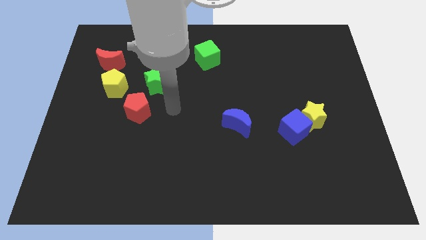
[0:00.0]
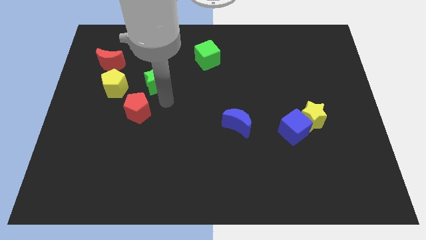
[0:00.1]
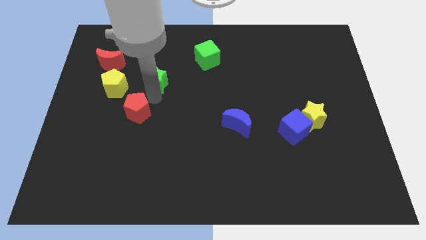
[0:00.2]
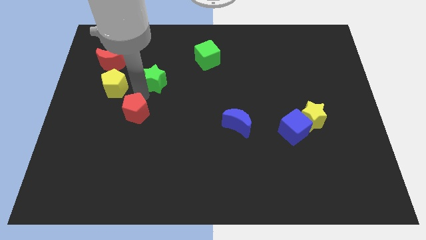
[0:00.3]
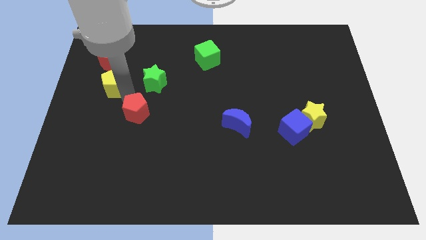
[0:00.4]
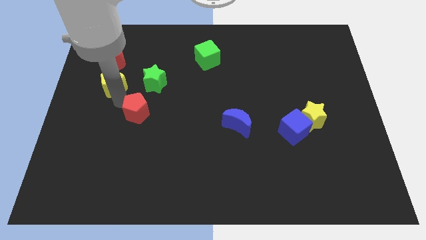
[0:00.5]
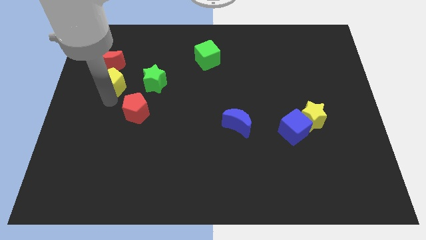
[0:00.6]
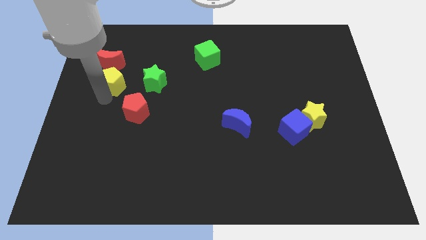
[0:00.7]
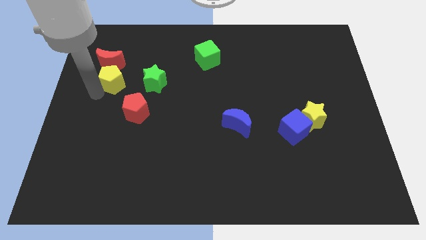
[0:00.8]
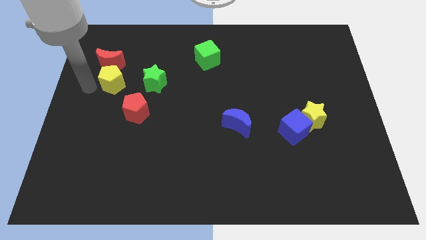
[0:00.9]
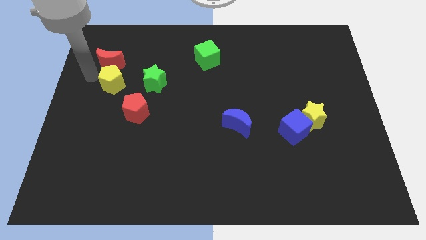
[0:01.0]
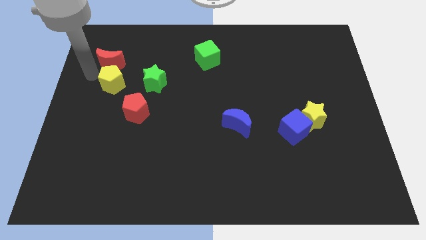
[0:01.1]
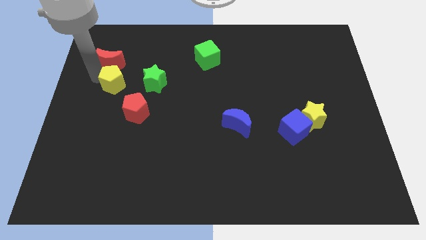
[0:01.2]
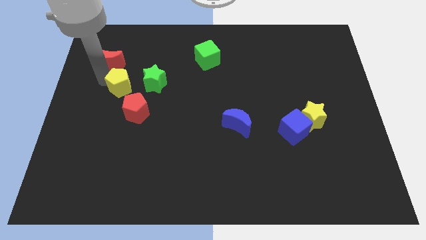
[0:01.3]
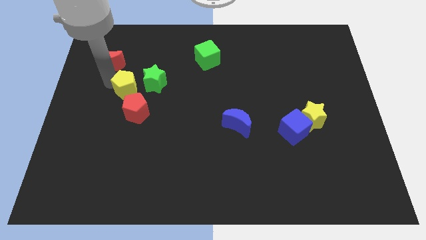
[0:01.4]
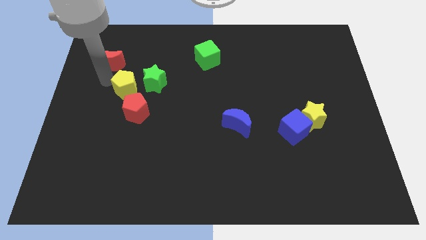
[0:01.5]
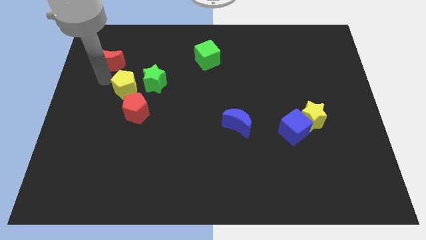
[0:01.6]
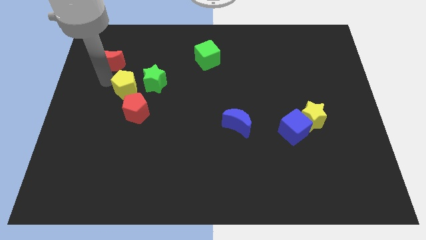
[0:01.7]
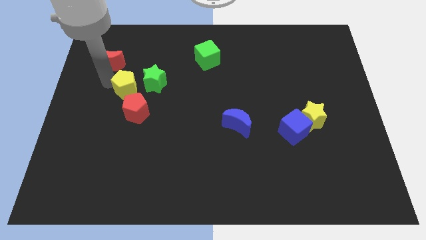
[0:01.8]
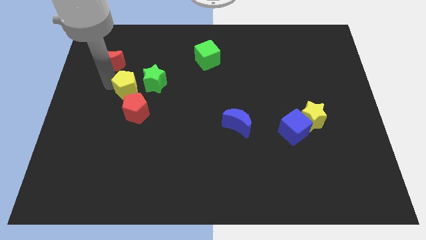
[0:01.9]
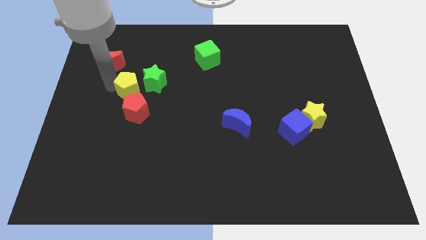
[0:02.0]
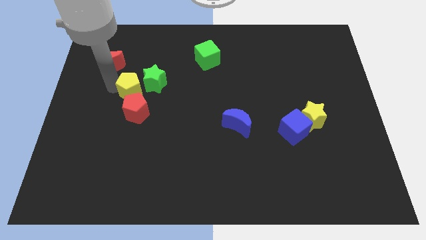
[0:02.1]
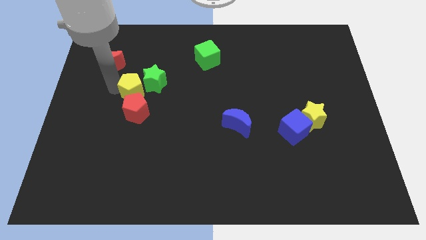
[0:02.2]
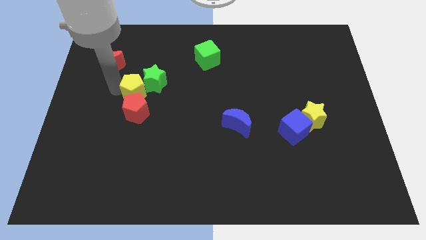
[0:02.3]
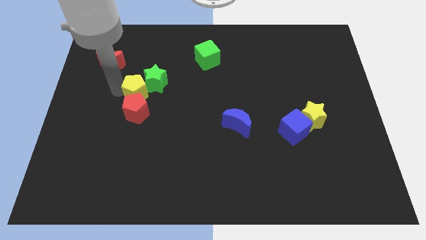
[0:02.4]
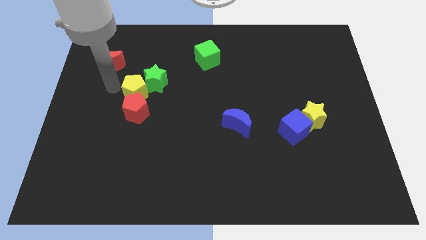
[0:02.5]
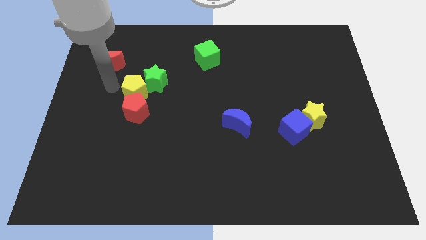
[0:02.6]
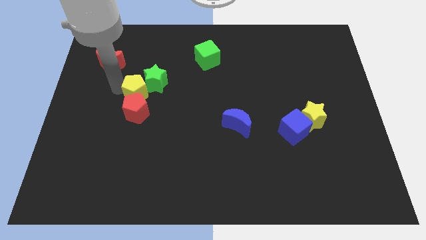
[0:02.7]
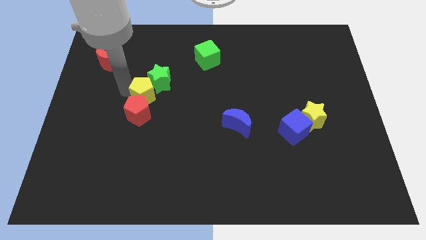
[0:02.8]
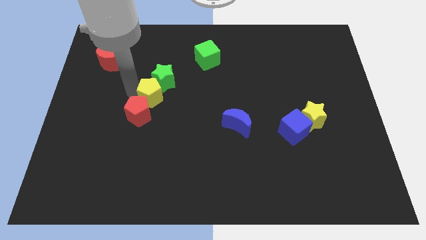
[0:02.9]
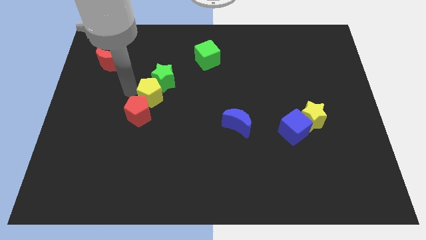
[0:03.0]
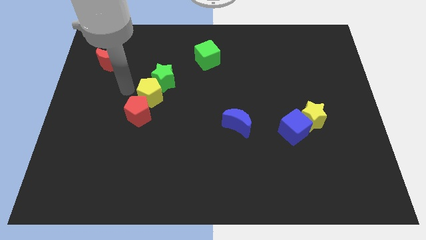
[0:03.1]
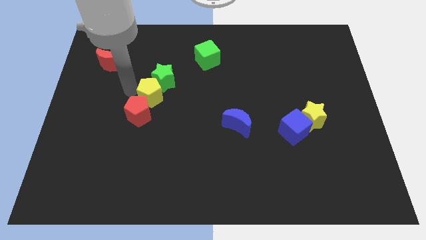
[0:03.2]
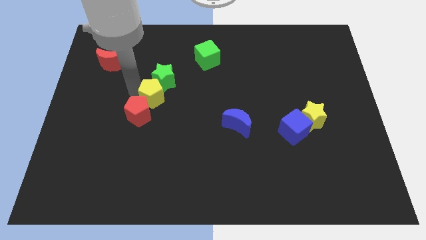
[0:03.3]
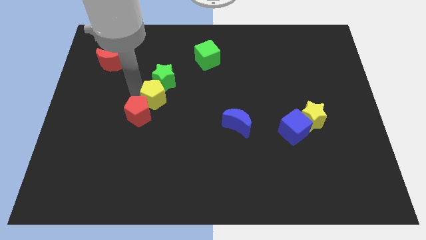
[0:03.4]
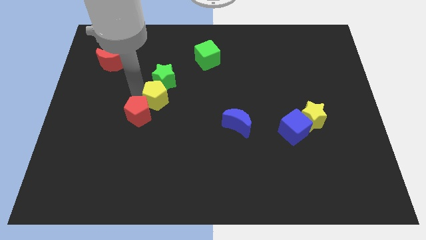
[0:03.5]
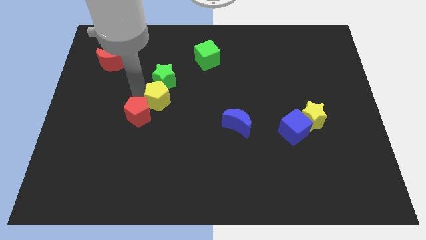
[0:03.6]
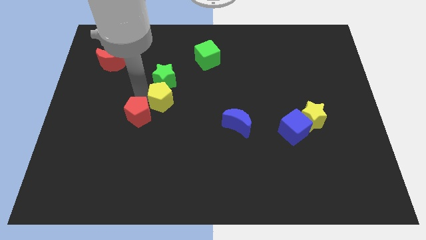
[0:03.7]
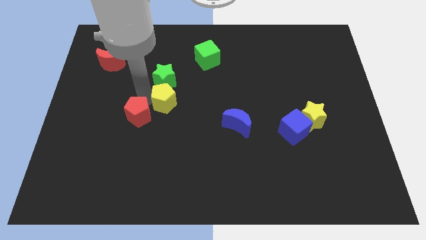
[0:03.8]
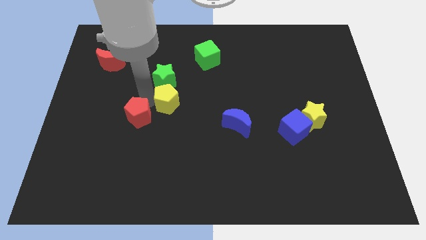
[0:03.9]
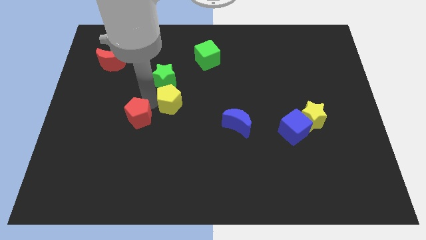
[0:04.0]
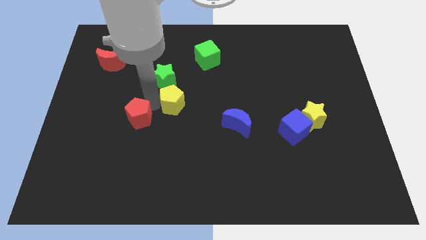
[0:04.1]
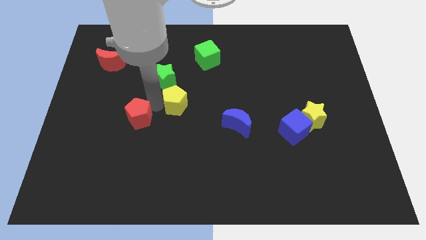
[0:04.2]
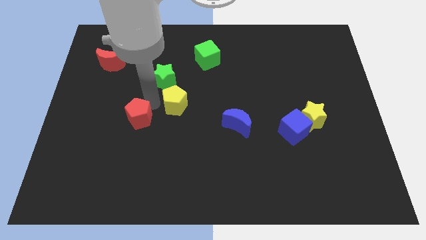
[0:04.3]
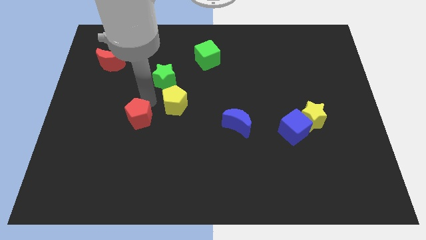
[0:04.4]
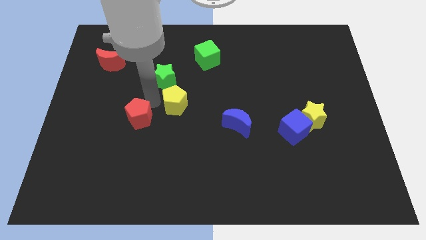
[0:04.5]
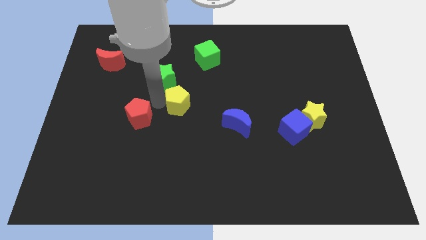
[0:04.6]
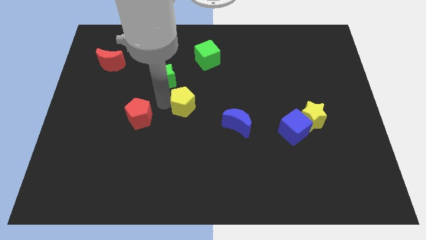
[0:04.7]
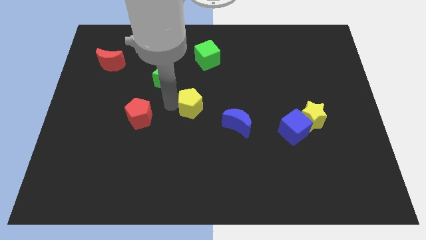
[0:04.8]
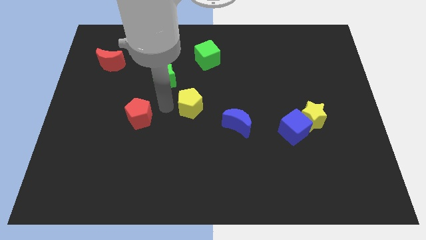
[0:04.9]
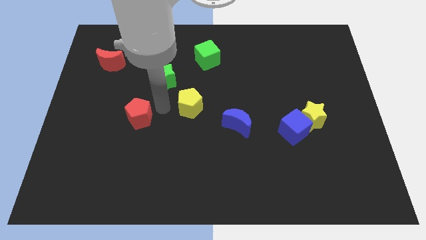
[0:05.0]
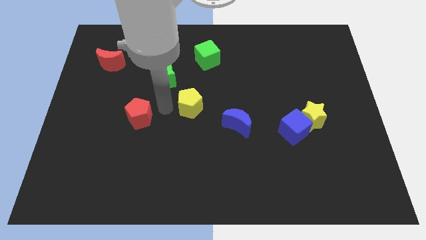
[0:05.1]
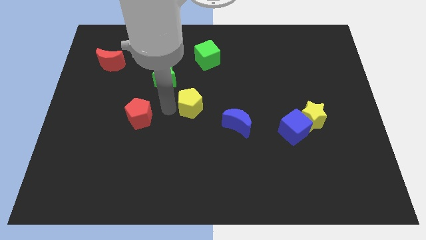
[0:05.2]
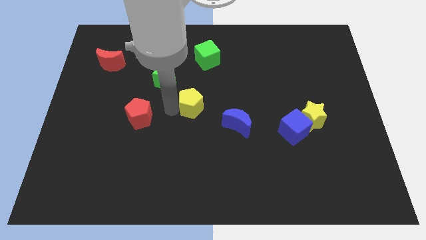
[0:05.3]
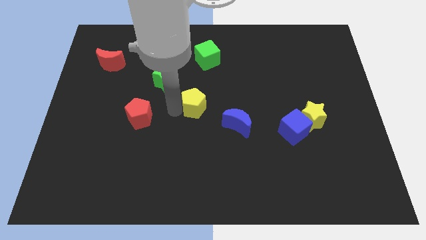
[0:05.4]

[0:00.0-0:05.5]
slide the yellow pentagon diagonally up and to the left of the blue moon
